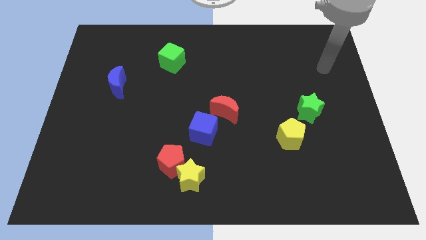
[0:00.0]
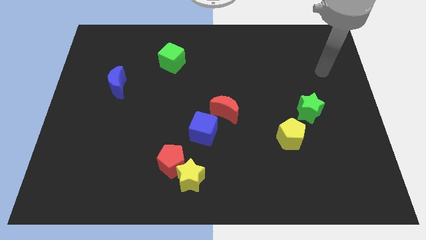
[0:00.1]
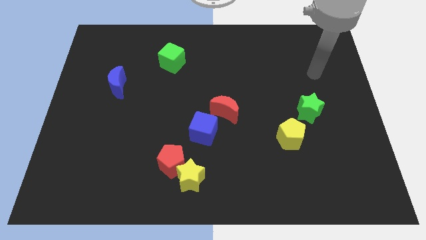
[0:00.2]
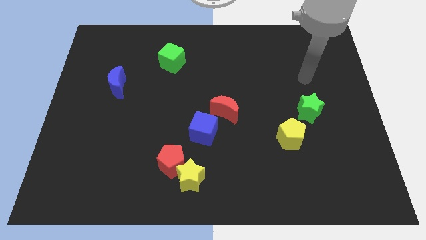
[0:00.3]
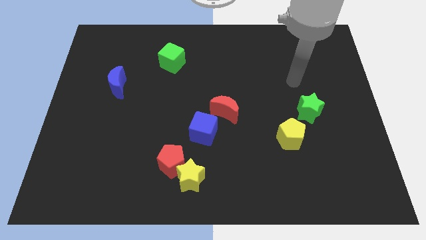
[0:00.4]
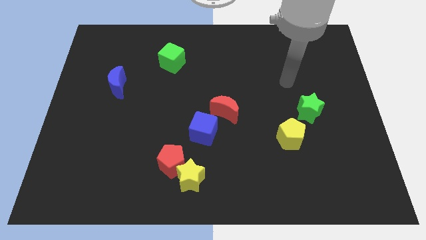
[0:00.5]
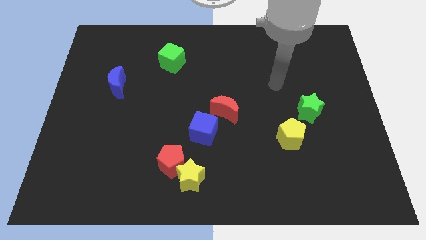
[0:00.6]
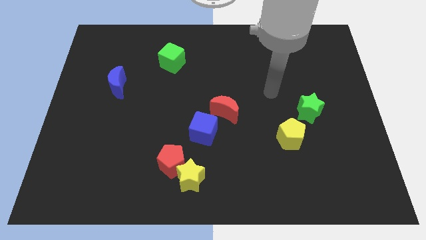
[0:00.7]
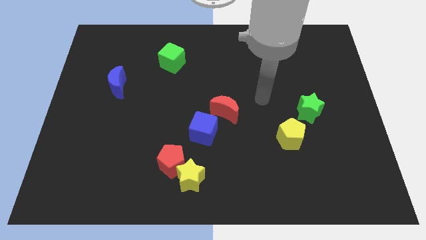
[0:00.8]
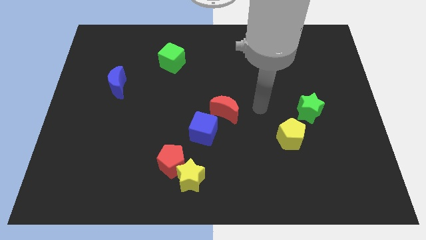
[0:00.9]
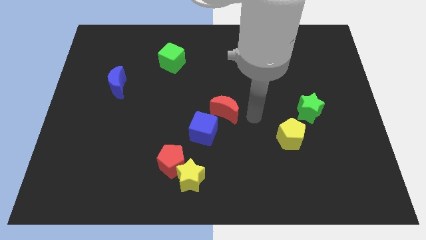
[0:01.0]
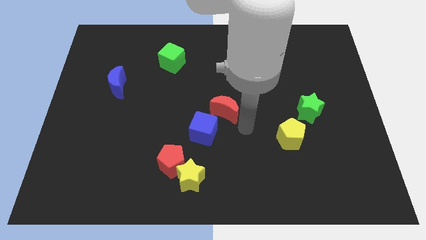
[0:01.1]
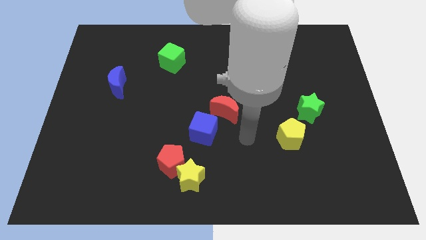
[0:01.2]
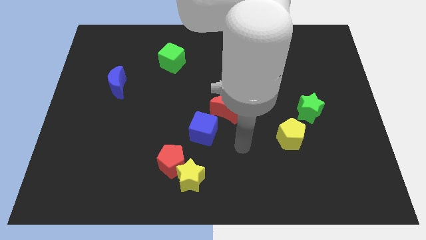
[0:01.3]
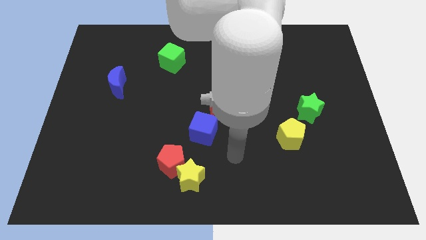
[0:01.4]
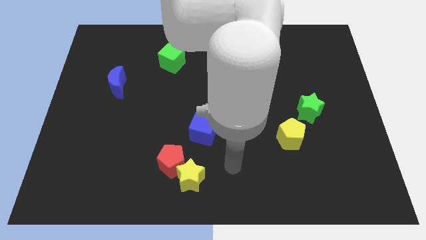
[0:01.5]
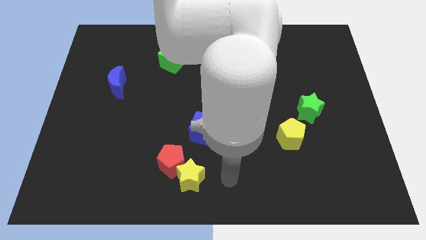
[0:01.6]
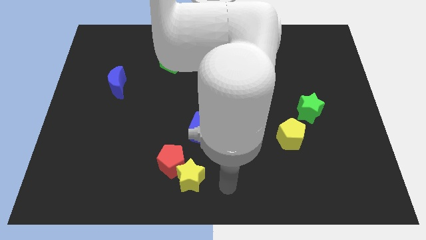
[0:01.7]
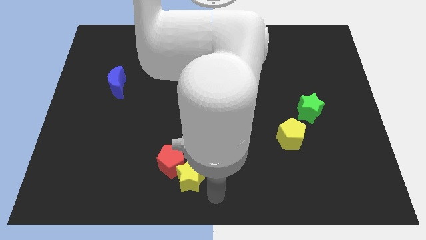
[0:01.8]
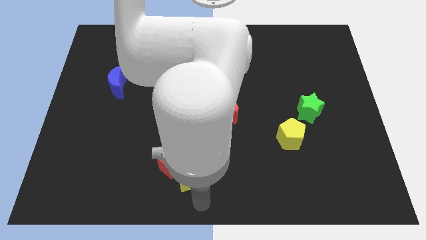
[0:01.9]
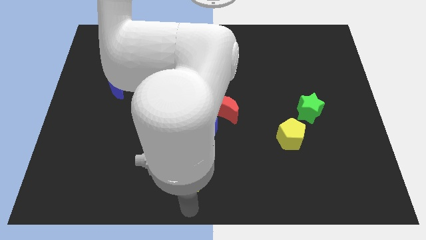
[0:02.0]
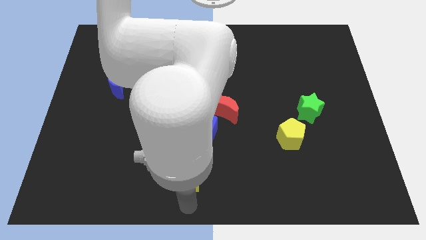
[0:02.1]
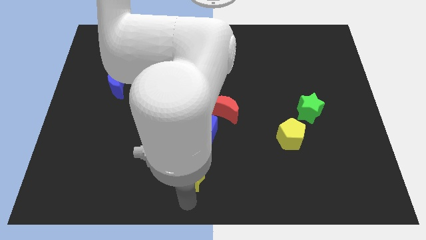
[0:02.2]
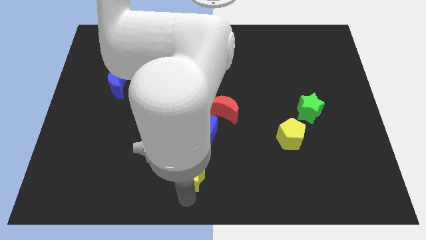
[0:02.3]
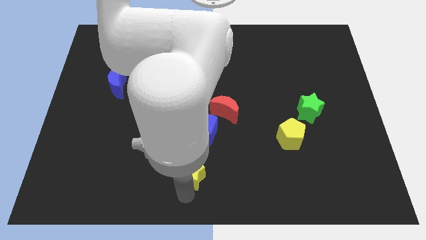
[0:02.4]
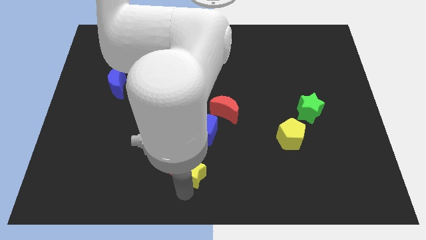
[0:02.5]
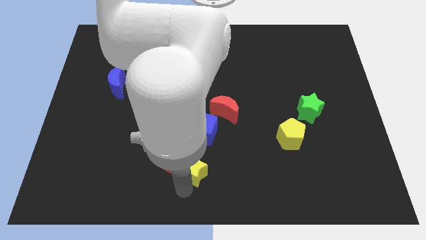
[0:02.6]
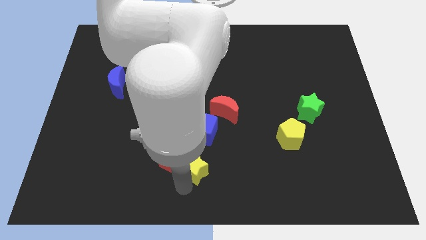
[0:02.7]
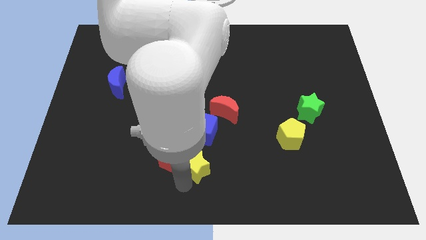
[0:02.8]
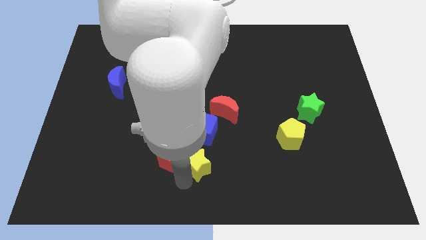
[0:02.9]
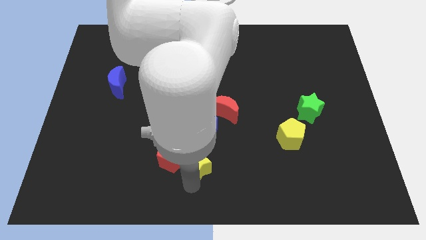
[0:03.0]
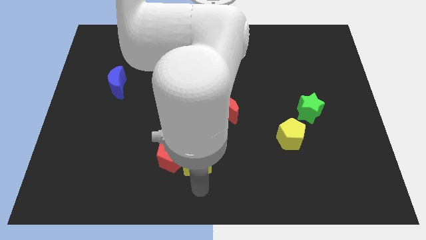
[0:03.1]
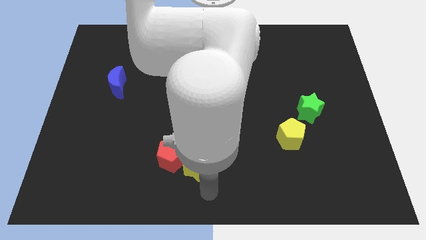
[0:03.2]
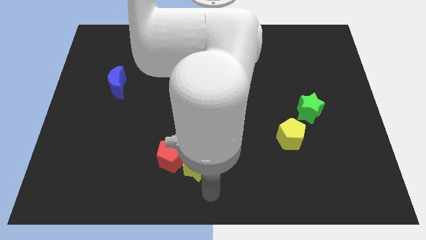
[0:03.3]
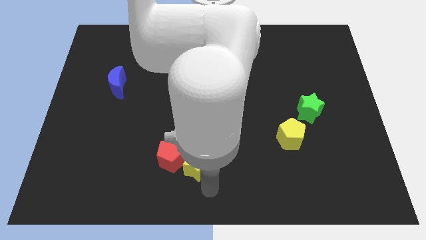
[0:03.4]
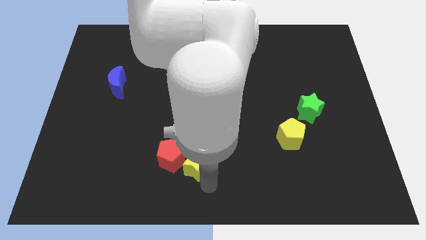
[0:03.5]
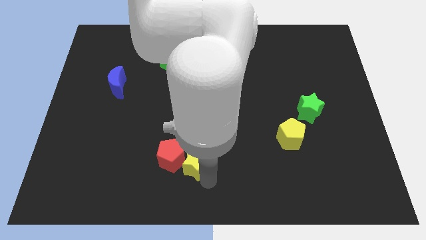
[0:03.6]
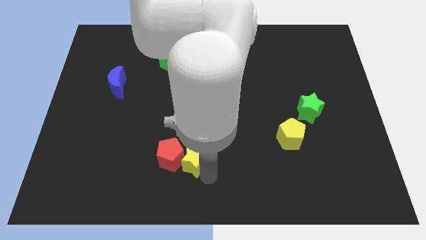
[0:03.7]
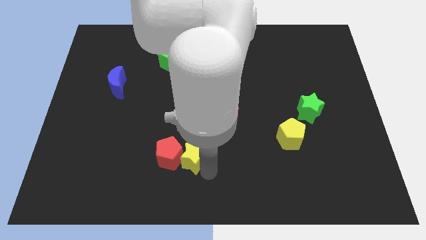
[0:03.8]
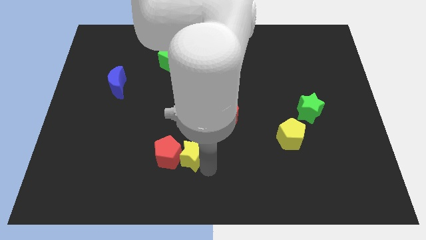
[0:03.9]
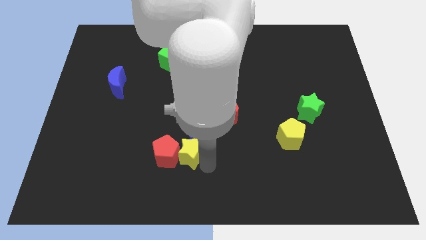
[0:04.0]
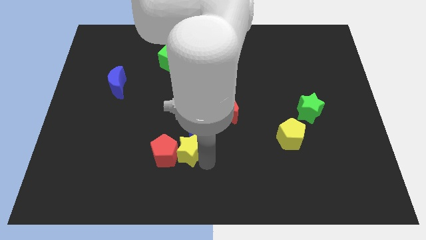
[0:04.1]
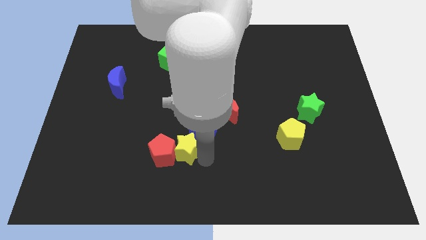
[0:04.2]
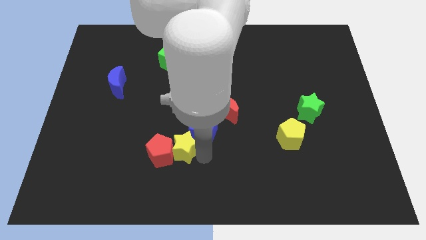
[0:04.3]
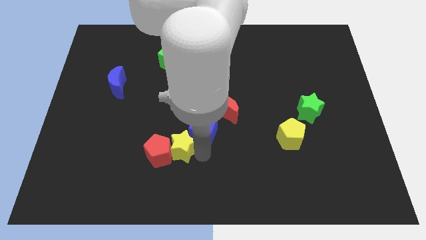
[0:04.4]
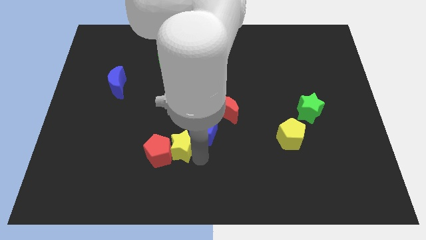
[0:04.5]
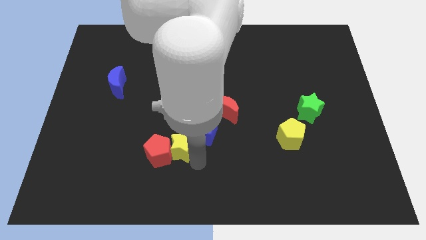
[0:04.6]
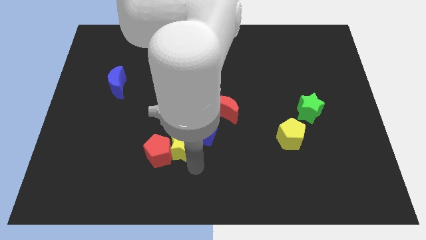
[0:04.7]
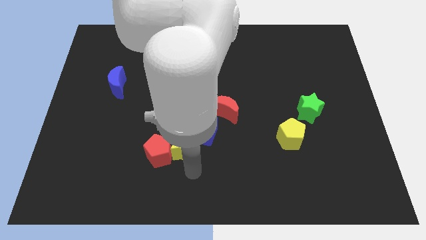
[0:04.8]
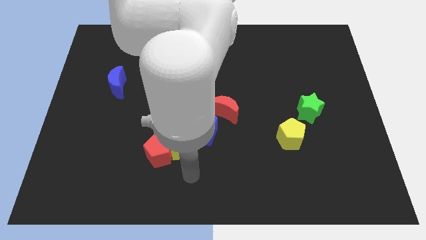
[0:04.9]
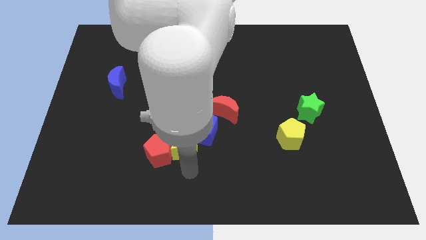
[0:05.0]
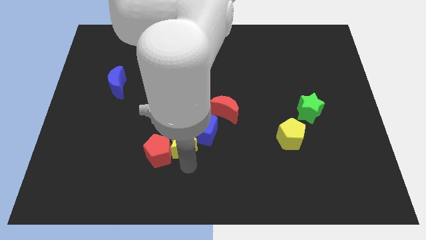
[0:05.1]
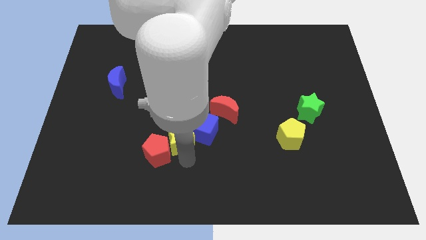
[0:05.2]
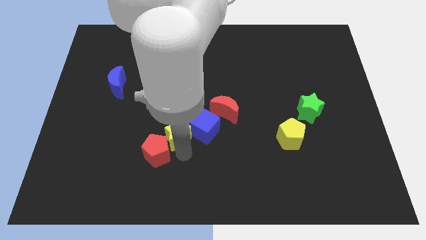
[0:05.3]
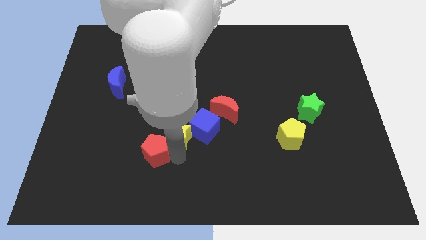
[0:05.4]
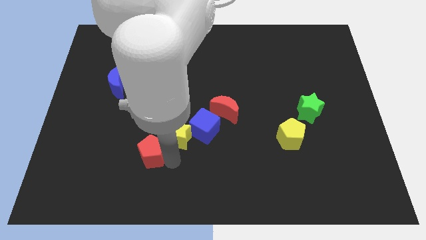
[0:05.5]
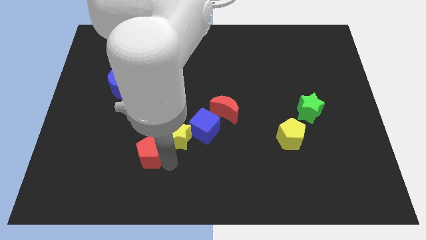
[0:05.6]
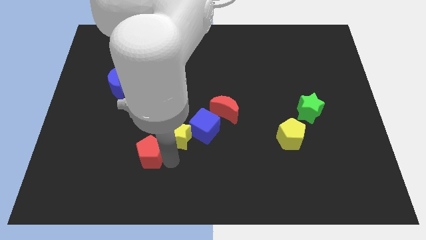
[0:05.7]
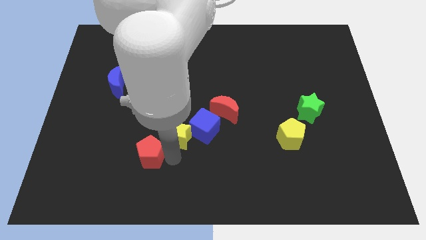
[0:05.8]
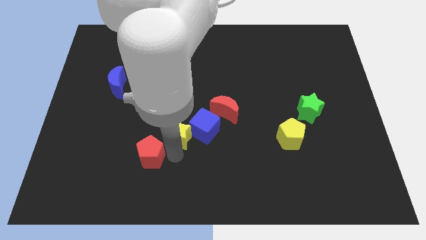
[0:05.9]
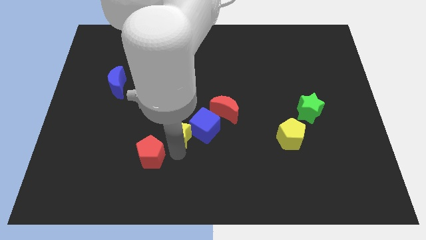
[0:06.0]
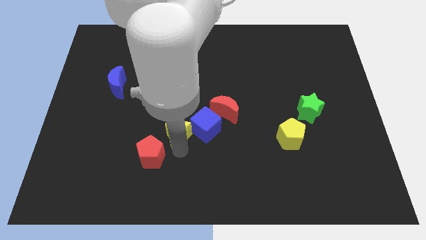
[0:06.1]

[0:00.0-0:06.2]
move the yellow star to the middle
